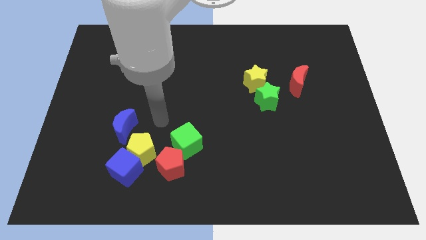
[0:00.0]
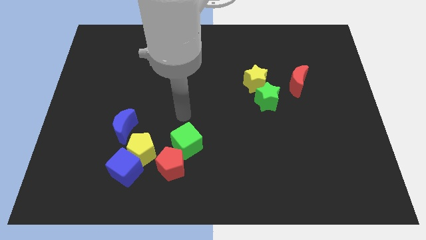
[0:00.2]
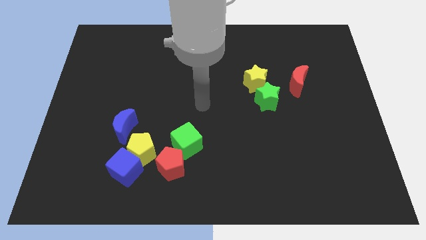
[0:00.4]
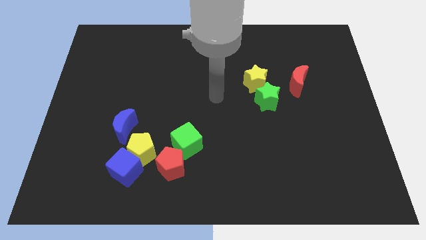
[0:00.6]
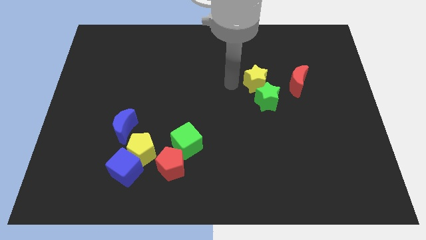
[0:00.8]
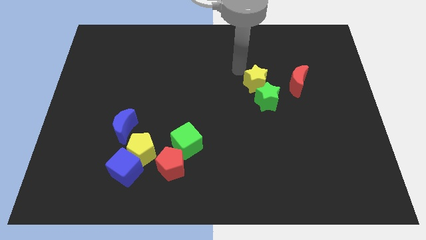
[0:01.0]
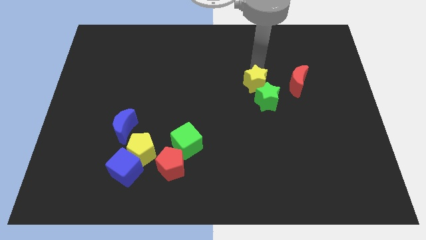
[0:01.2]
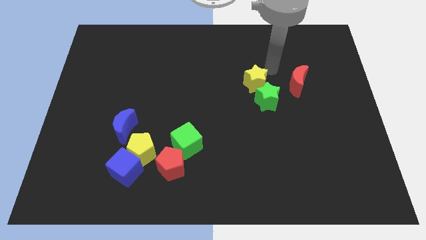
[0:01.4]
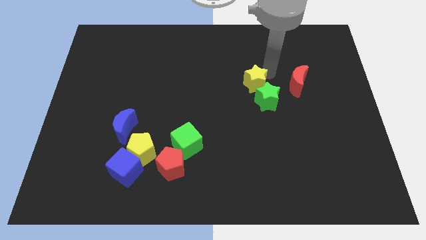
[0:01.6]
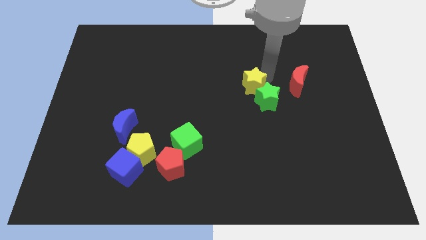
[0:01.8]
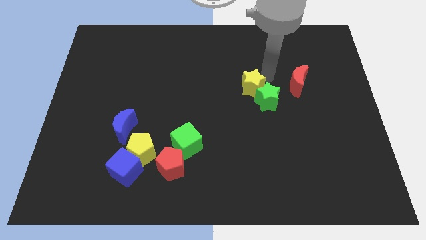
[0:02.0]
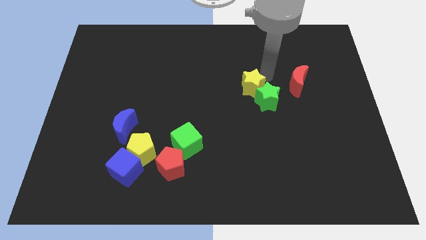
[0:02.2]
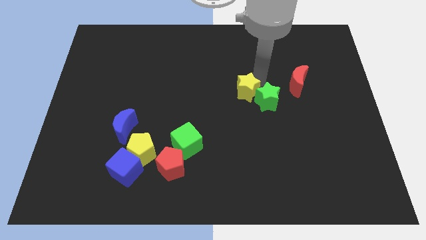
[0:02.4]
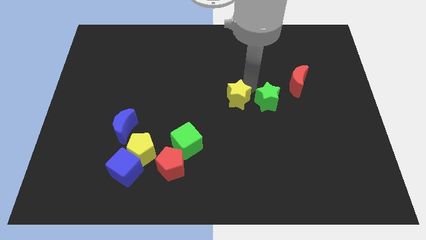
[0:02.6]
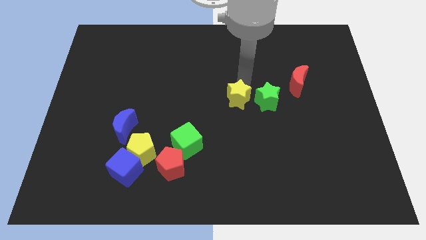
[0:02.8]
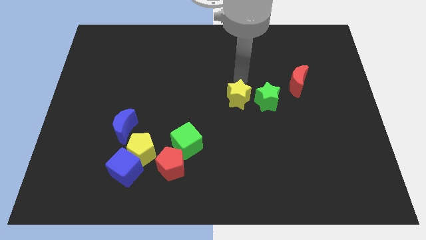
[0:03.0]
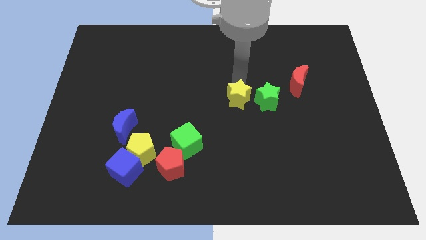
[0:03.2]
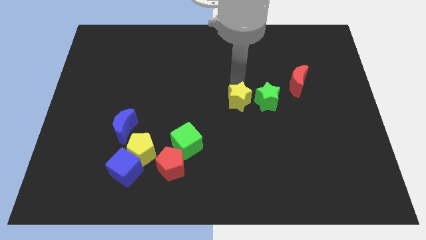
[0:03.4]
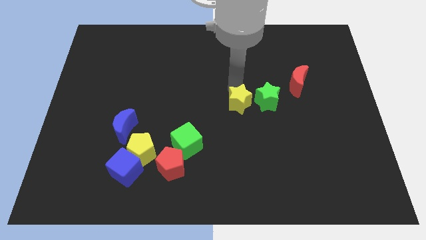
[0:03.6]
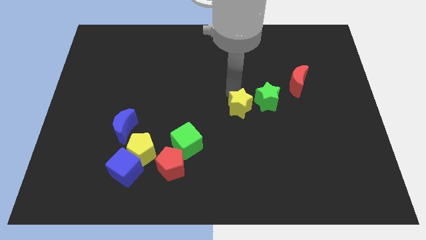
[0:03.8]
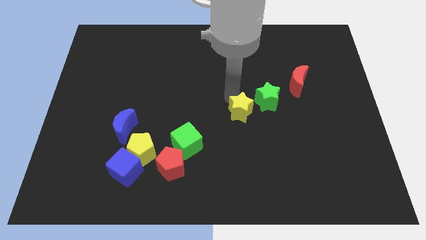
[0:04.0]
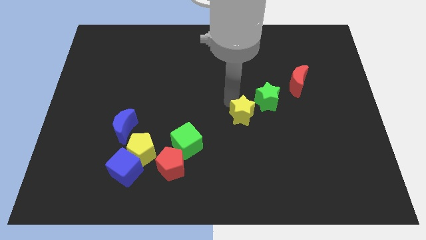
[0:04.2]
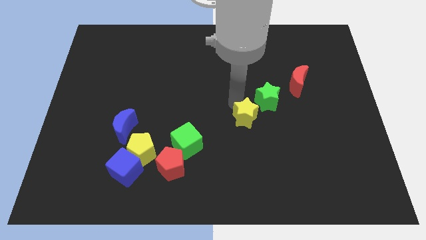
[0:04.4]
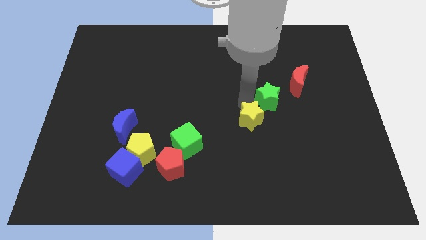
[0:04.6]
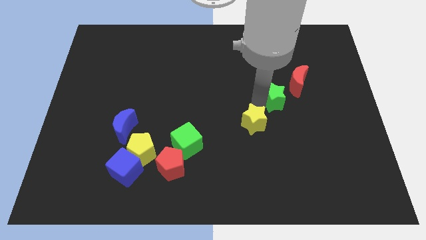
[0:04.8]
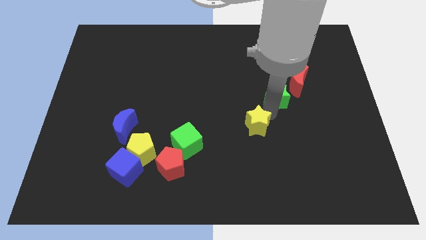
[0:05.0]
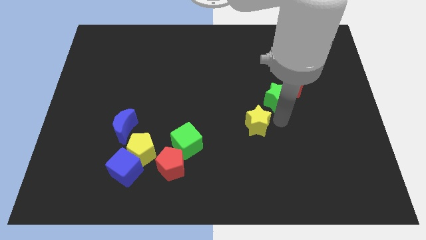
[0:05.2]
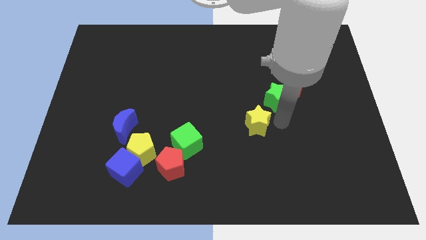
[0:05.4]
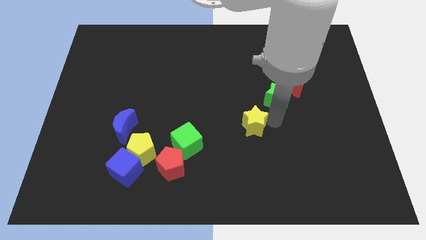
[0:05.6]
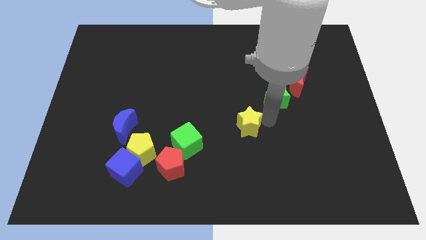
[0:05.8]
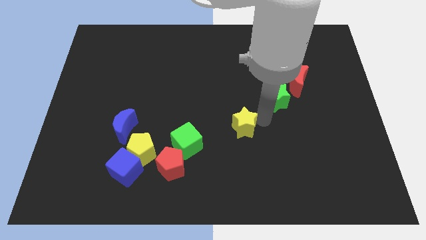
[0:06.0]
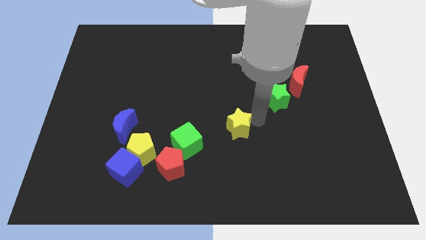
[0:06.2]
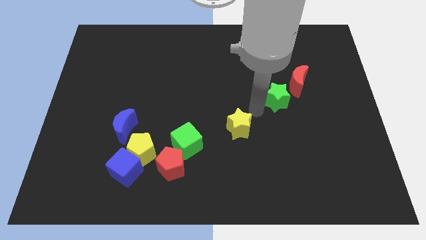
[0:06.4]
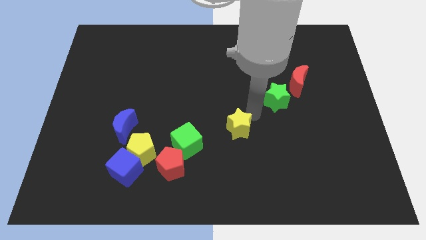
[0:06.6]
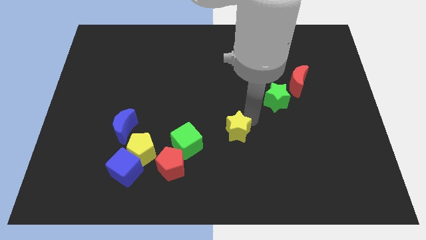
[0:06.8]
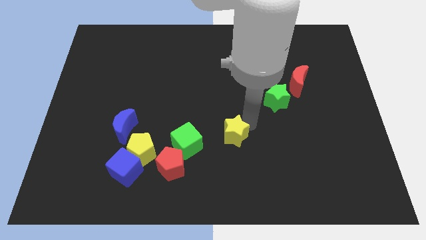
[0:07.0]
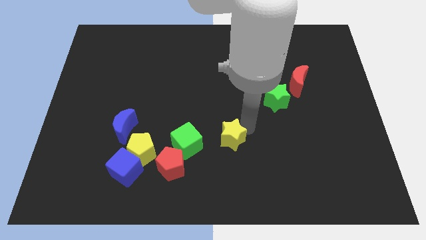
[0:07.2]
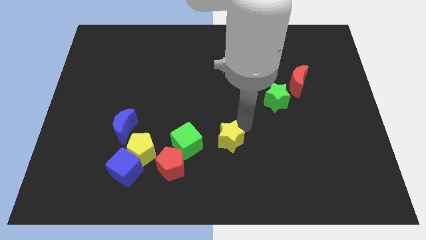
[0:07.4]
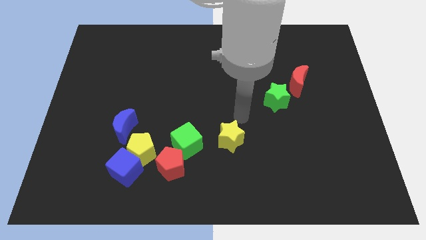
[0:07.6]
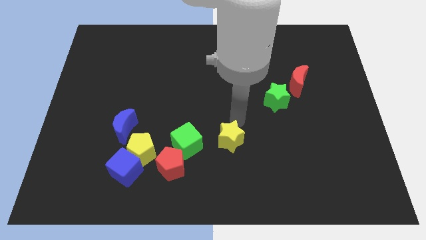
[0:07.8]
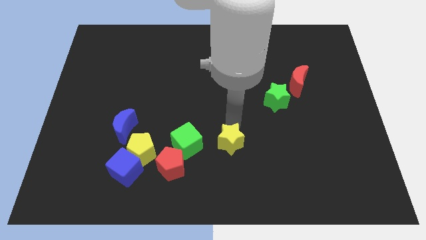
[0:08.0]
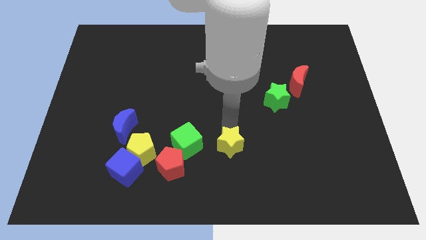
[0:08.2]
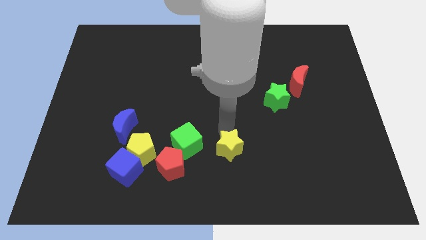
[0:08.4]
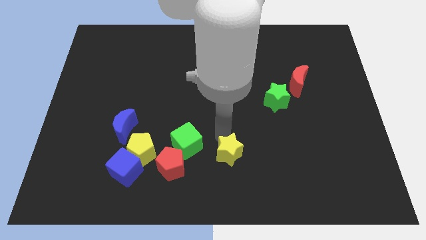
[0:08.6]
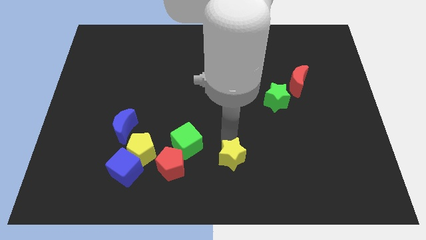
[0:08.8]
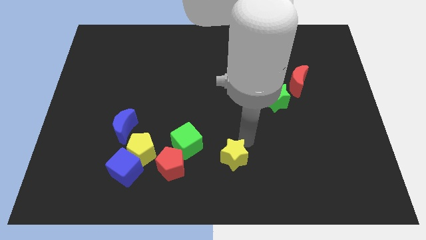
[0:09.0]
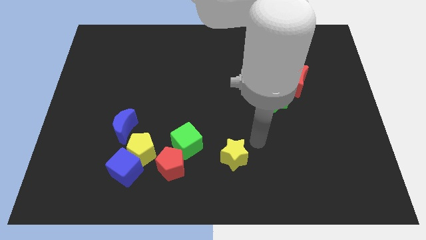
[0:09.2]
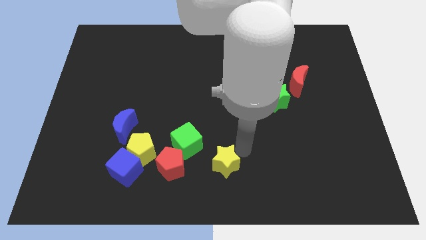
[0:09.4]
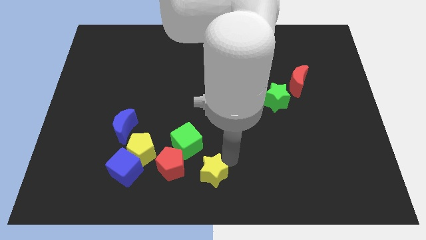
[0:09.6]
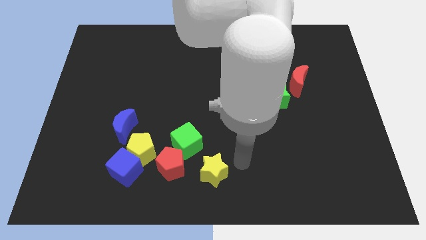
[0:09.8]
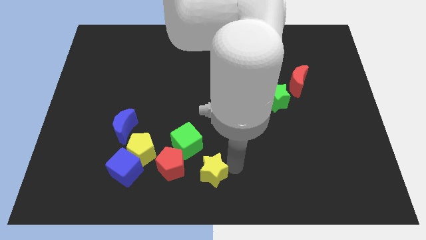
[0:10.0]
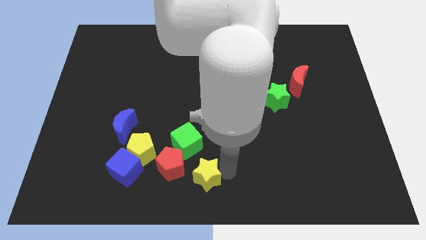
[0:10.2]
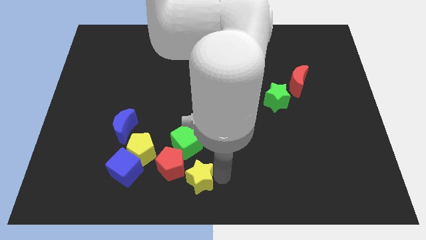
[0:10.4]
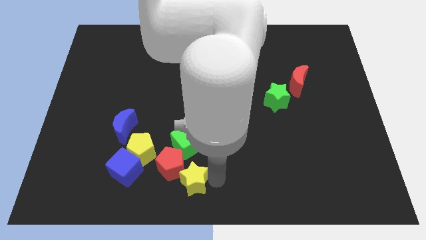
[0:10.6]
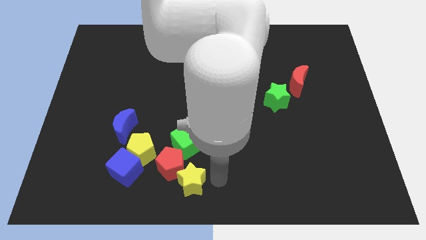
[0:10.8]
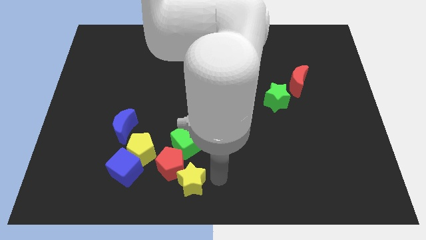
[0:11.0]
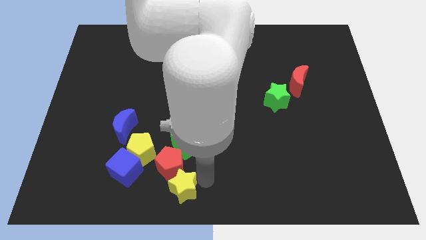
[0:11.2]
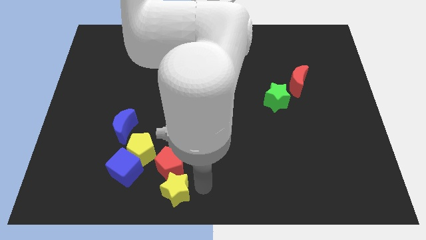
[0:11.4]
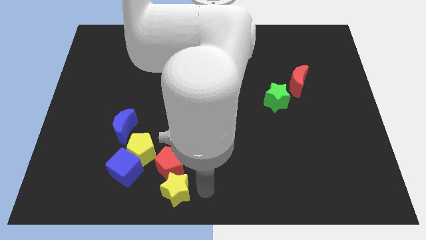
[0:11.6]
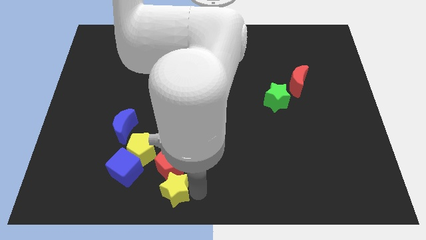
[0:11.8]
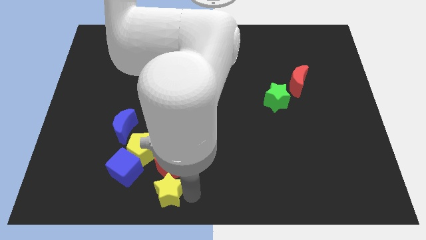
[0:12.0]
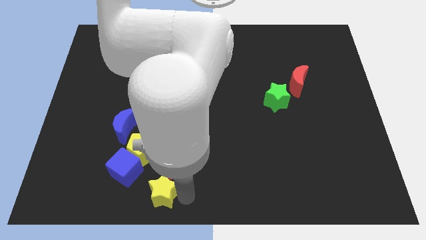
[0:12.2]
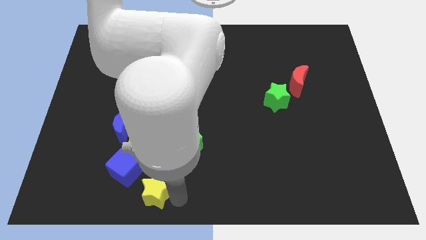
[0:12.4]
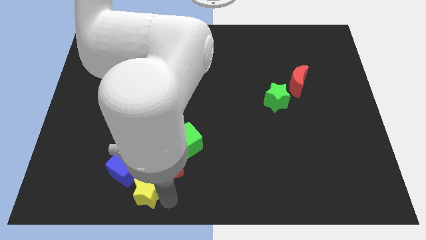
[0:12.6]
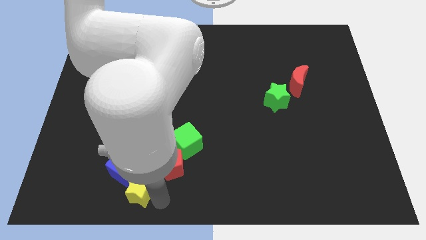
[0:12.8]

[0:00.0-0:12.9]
put the yellow star close to the blue cube
